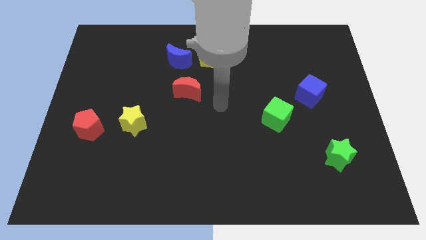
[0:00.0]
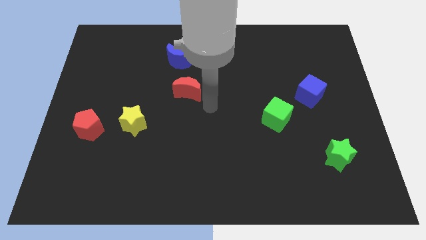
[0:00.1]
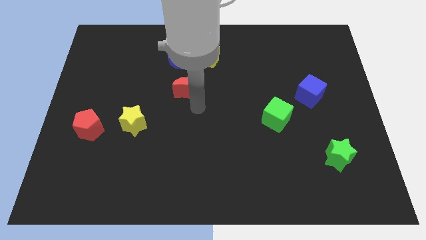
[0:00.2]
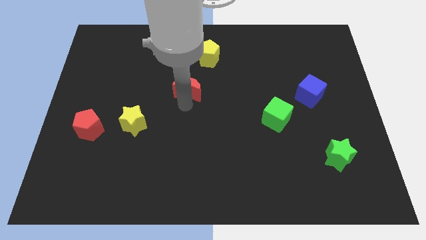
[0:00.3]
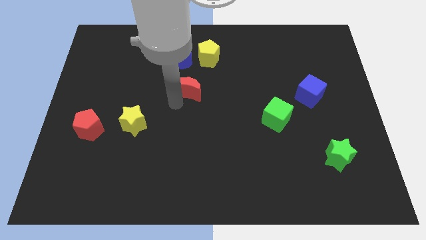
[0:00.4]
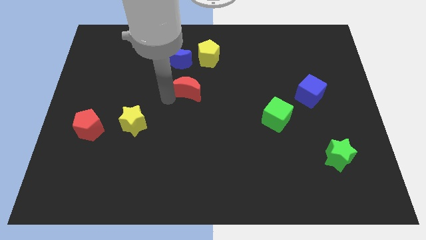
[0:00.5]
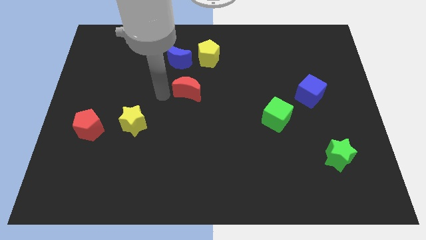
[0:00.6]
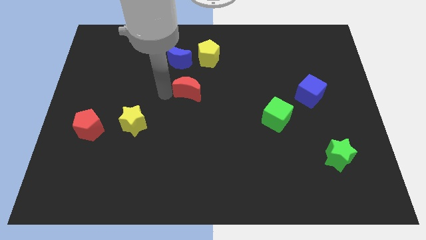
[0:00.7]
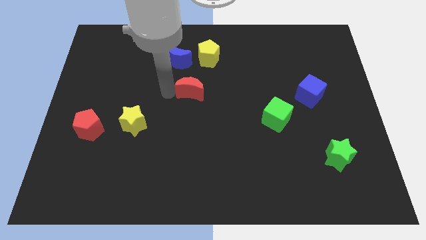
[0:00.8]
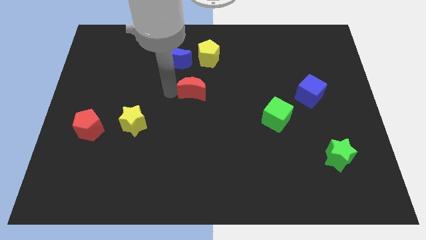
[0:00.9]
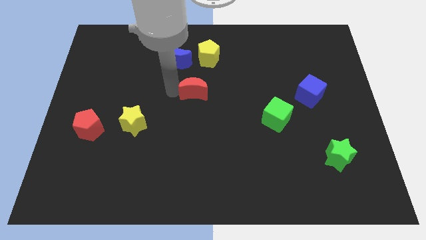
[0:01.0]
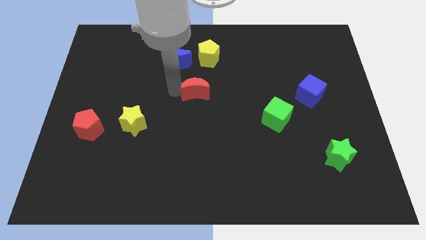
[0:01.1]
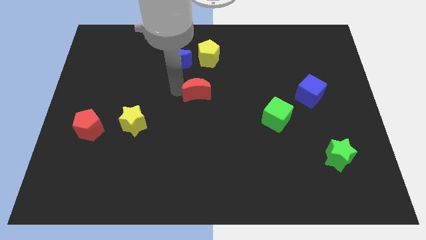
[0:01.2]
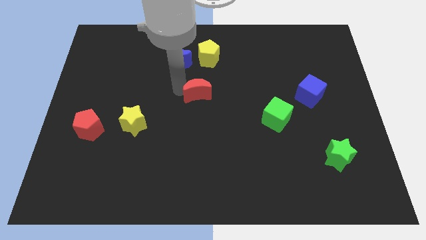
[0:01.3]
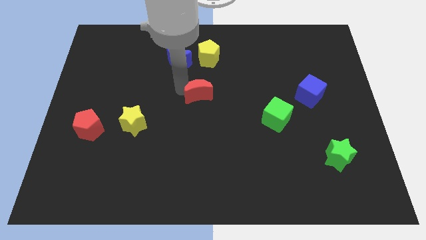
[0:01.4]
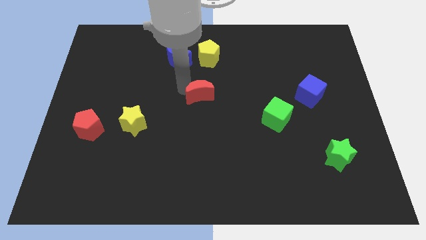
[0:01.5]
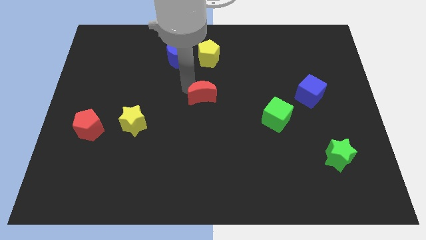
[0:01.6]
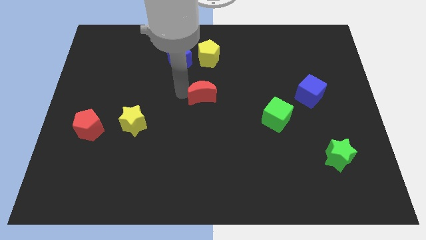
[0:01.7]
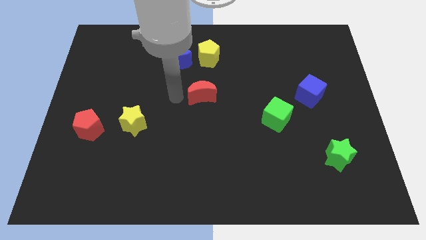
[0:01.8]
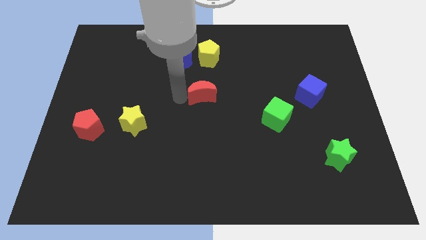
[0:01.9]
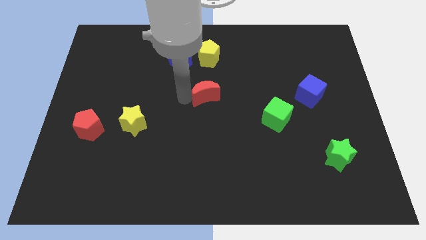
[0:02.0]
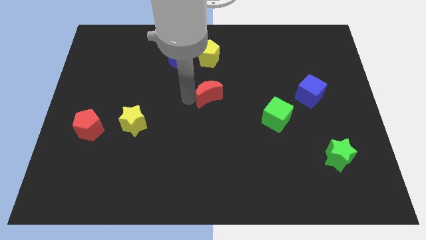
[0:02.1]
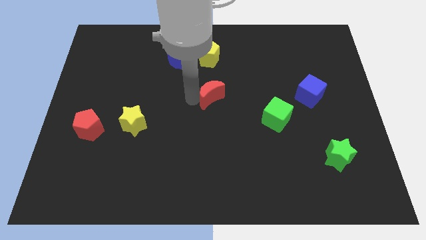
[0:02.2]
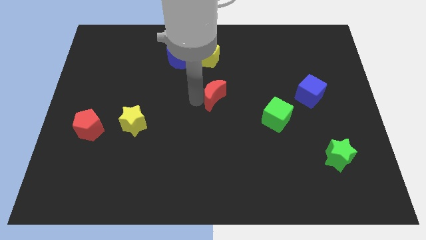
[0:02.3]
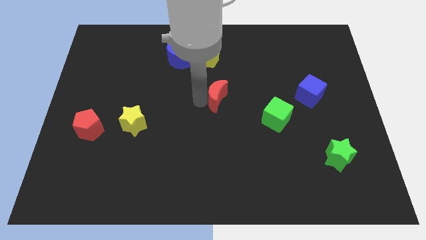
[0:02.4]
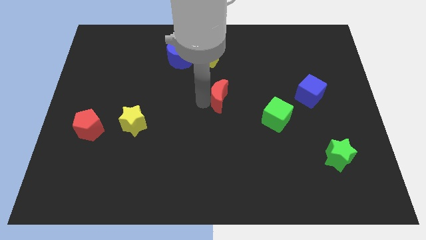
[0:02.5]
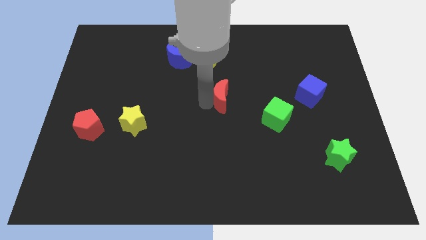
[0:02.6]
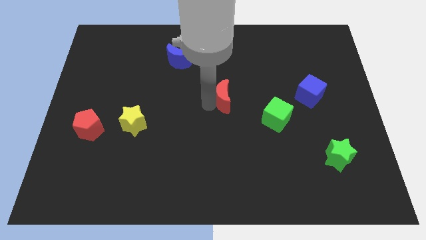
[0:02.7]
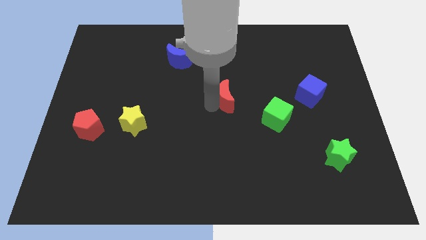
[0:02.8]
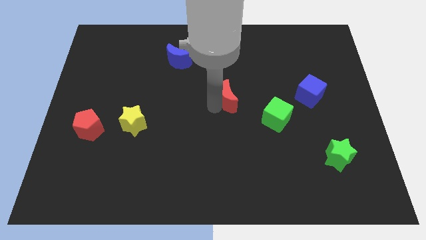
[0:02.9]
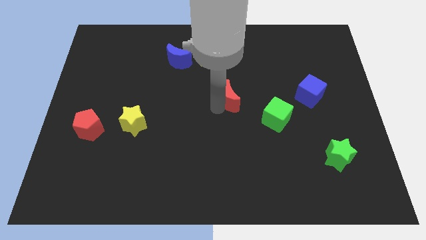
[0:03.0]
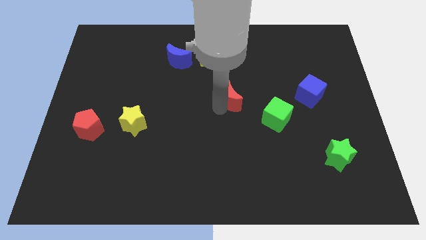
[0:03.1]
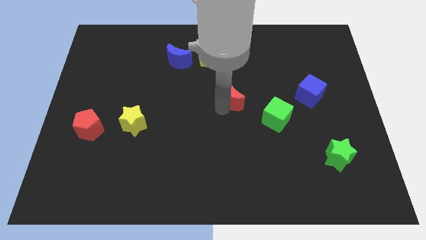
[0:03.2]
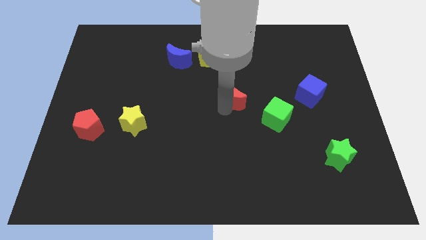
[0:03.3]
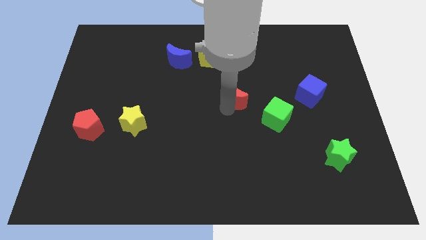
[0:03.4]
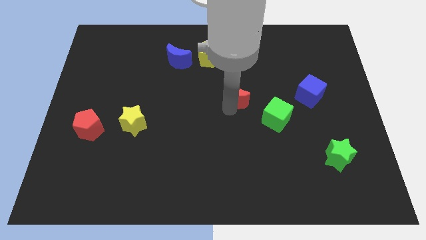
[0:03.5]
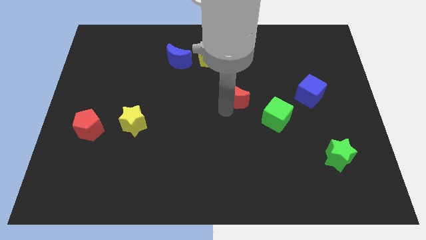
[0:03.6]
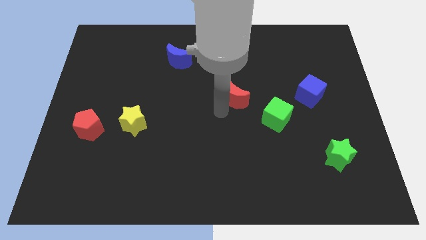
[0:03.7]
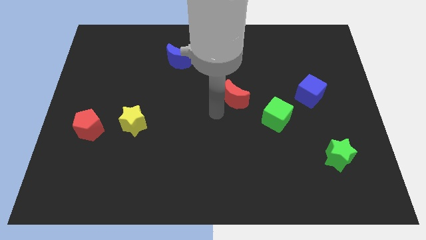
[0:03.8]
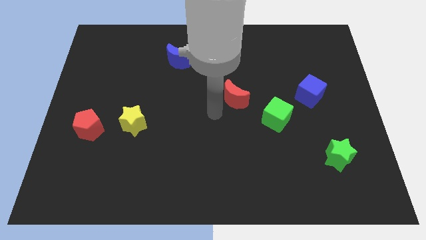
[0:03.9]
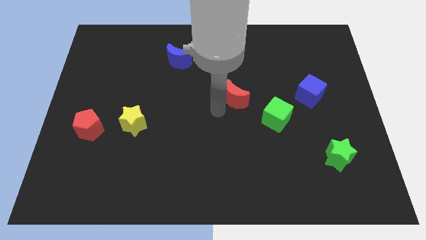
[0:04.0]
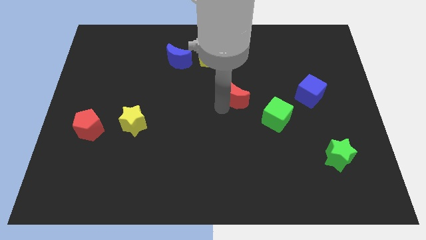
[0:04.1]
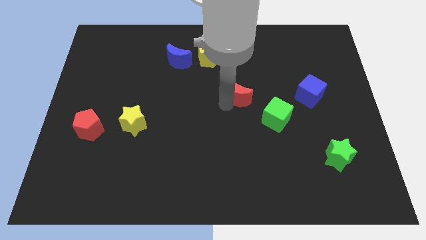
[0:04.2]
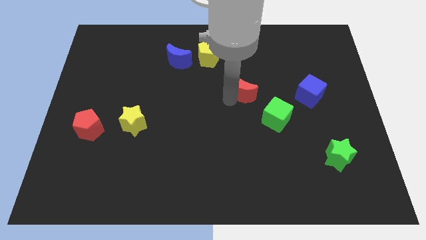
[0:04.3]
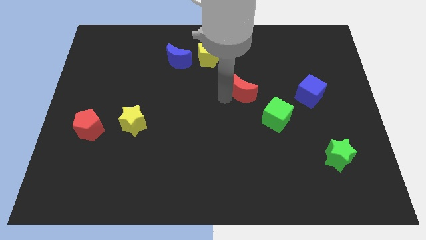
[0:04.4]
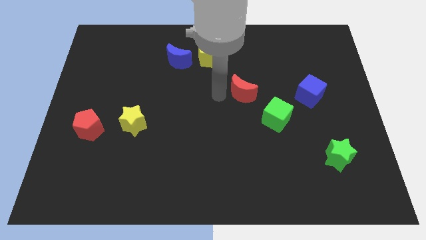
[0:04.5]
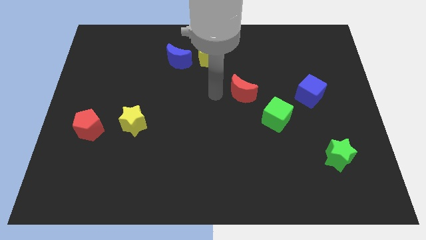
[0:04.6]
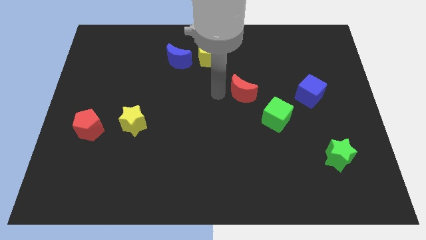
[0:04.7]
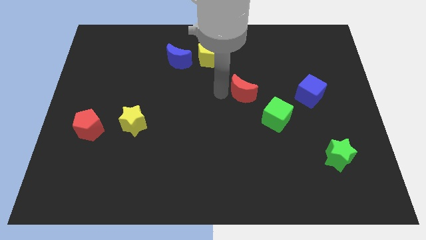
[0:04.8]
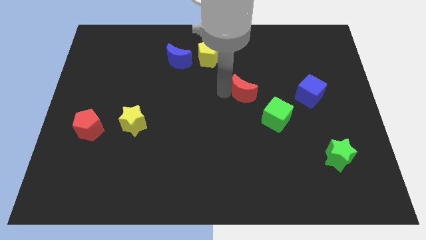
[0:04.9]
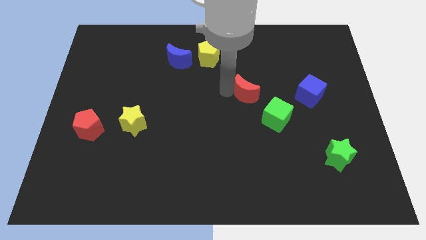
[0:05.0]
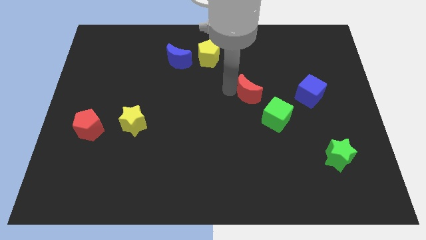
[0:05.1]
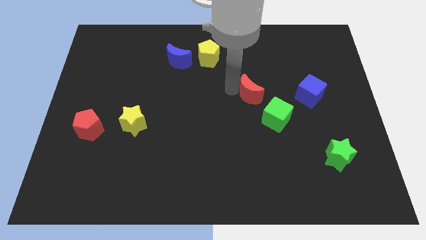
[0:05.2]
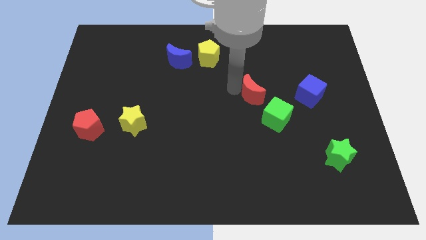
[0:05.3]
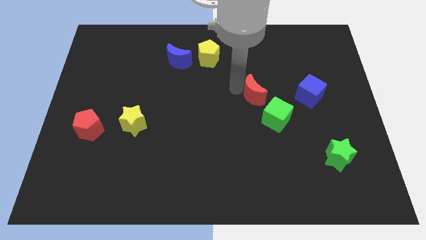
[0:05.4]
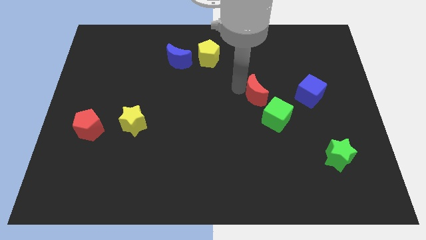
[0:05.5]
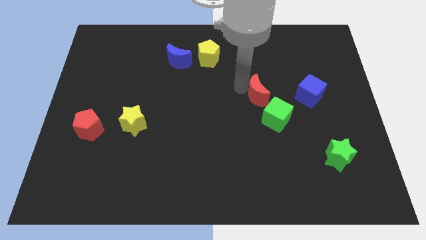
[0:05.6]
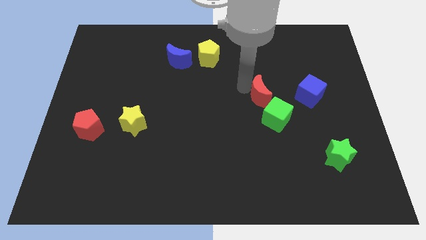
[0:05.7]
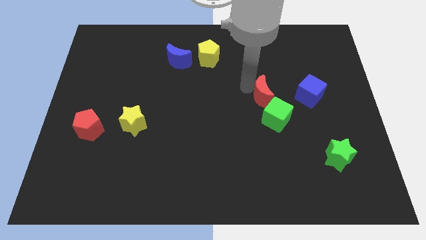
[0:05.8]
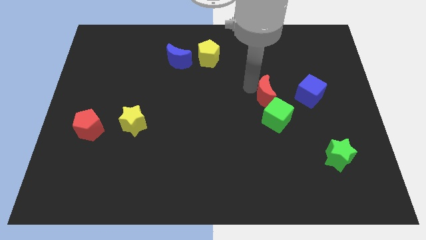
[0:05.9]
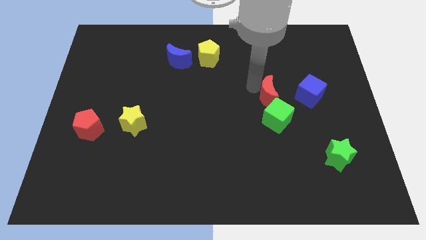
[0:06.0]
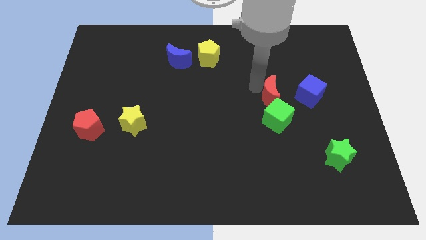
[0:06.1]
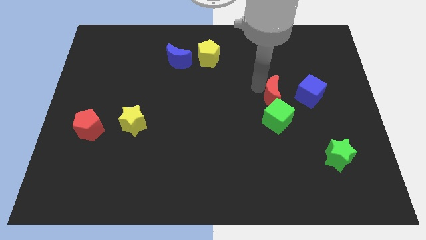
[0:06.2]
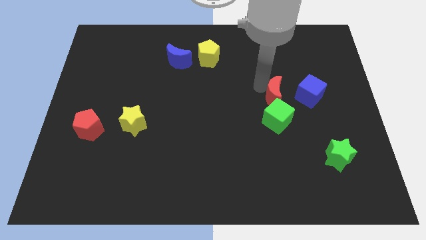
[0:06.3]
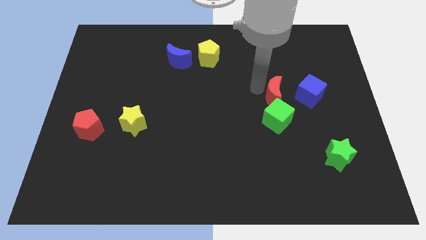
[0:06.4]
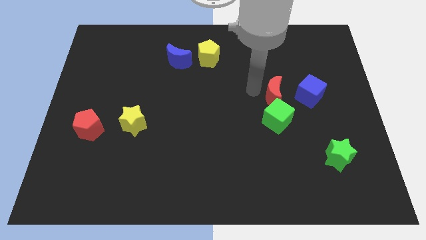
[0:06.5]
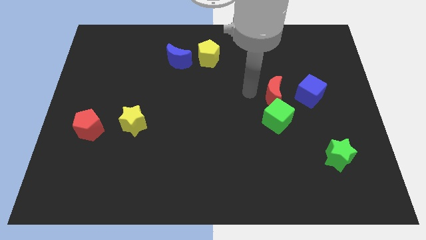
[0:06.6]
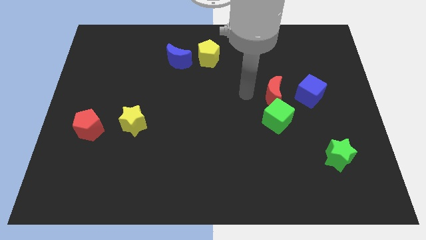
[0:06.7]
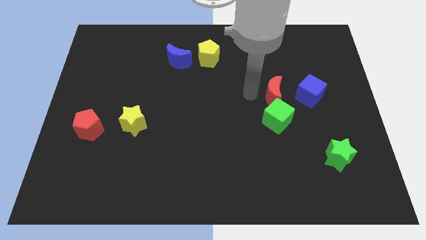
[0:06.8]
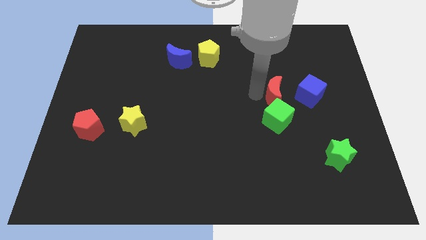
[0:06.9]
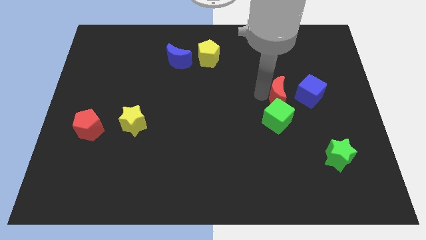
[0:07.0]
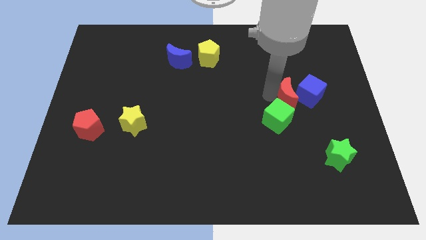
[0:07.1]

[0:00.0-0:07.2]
push the red moon to the blue cube

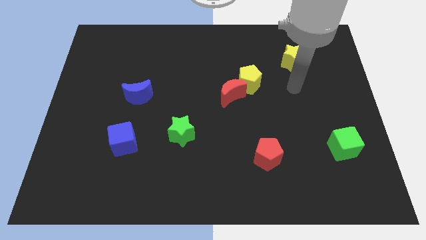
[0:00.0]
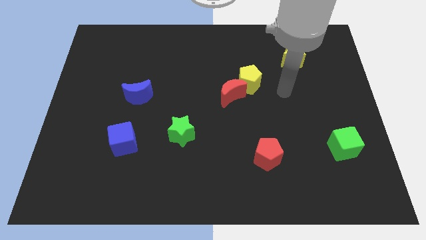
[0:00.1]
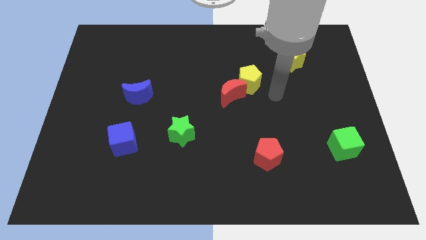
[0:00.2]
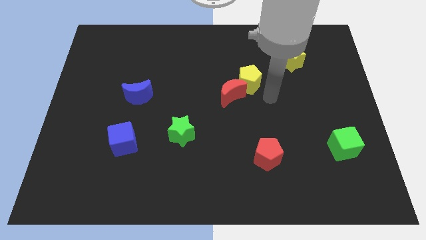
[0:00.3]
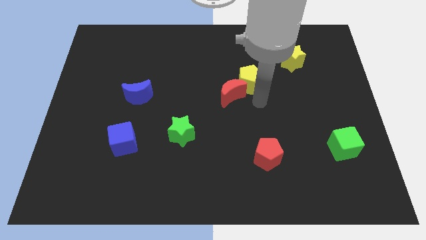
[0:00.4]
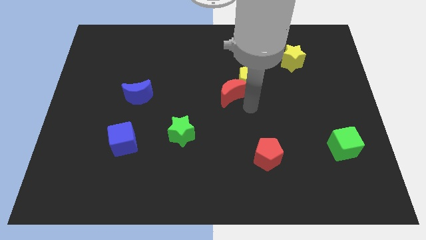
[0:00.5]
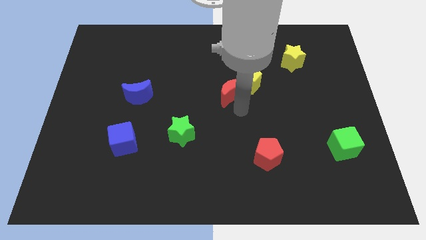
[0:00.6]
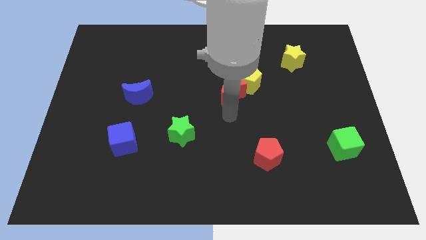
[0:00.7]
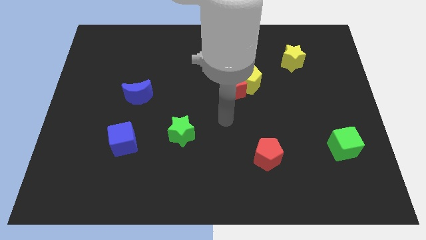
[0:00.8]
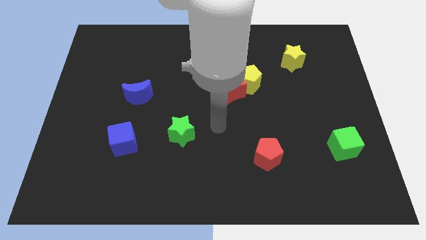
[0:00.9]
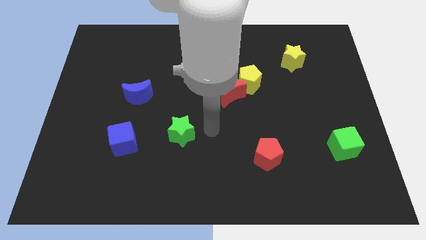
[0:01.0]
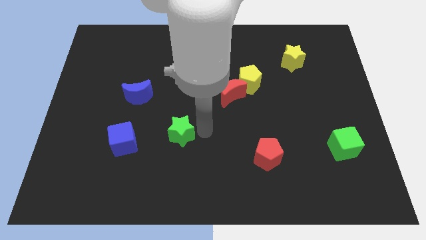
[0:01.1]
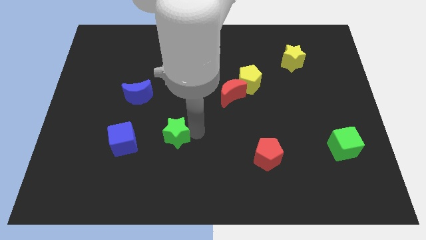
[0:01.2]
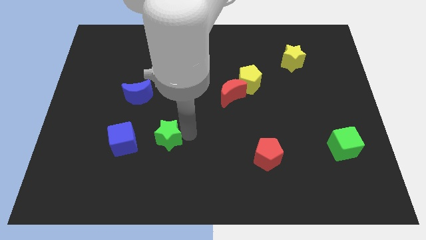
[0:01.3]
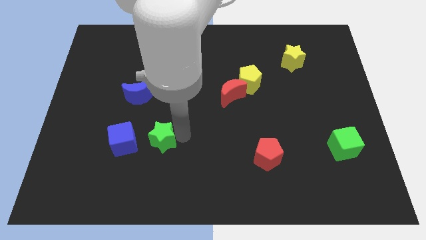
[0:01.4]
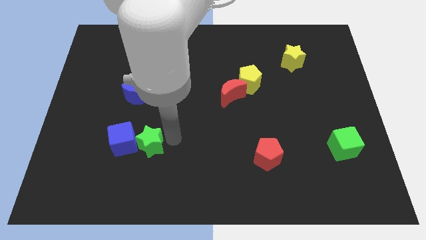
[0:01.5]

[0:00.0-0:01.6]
push the green star close to the blue cube
